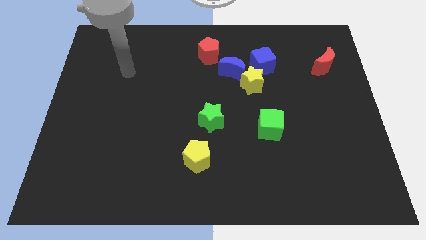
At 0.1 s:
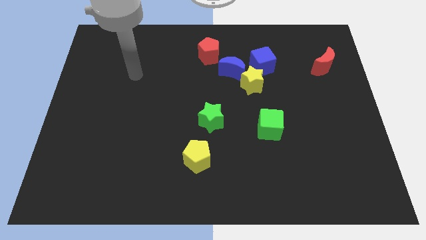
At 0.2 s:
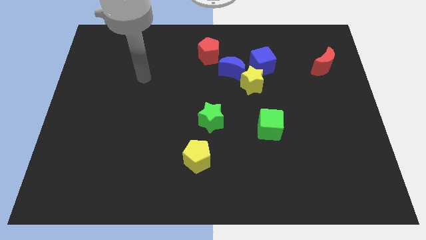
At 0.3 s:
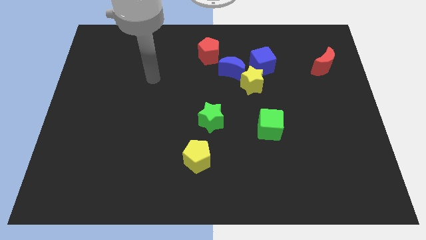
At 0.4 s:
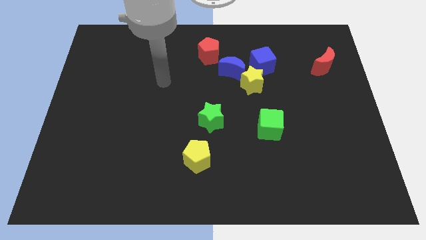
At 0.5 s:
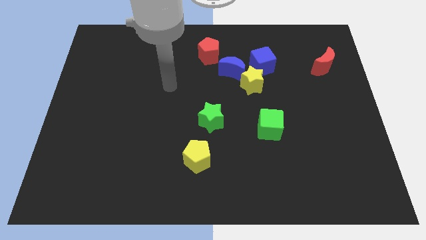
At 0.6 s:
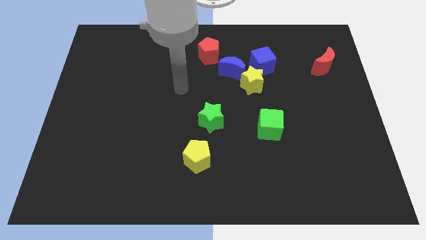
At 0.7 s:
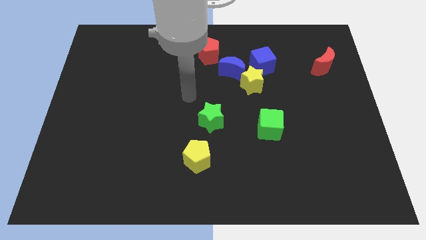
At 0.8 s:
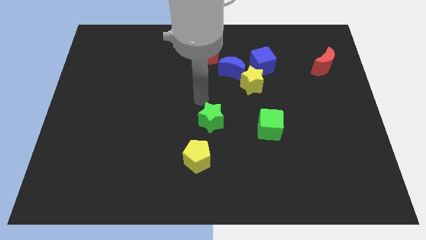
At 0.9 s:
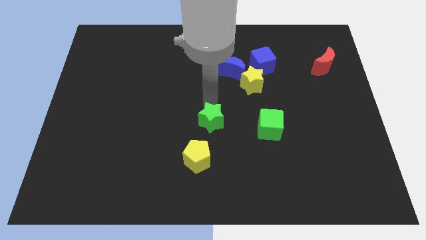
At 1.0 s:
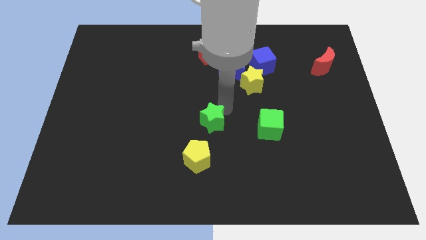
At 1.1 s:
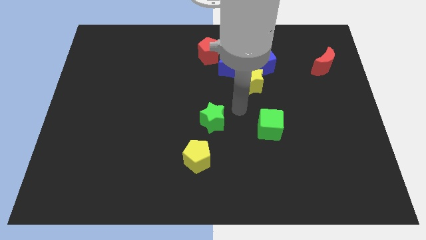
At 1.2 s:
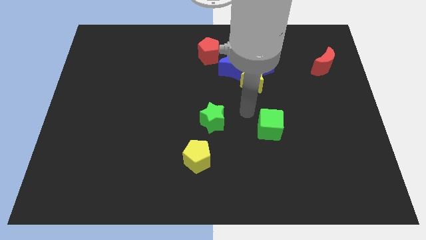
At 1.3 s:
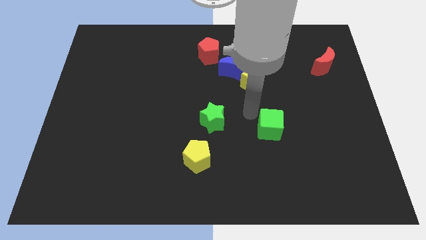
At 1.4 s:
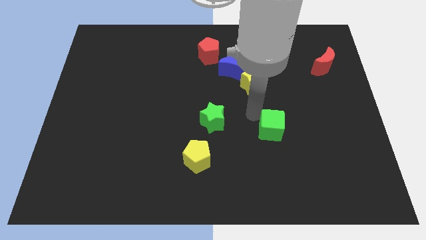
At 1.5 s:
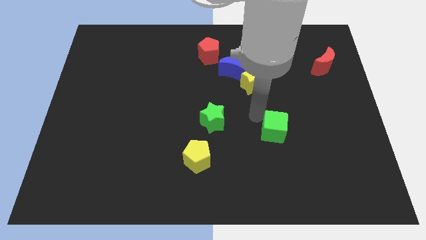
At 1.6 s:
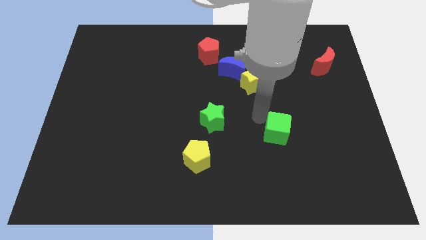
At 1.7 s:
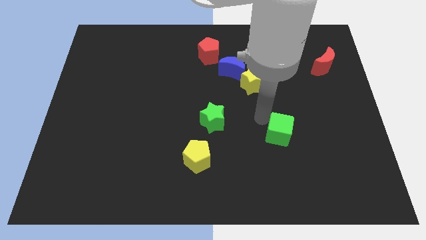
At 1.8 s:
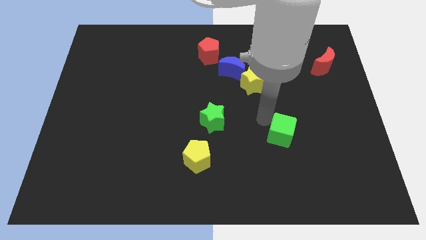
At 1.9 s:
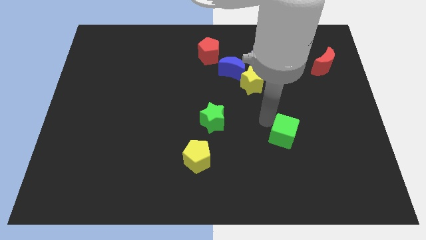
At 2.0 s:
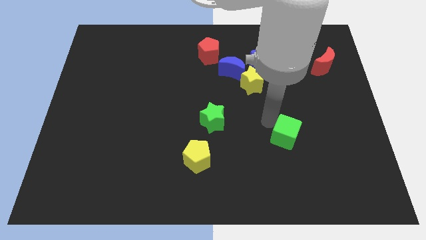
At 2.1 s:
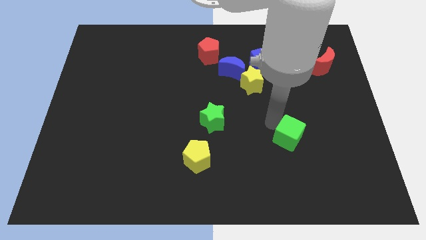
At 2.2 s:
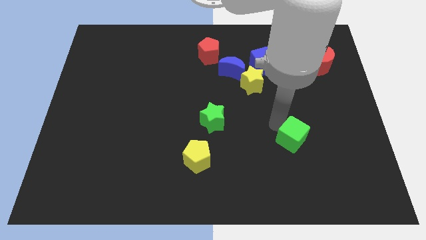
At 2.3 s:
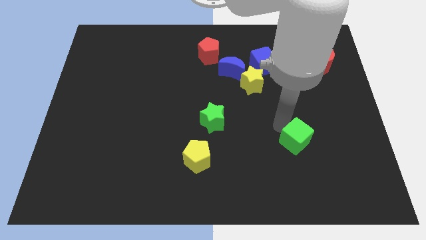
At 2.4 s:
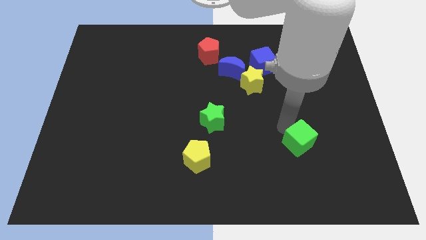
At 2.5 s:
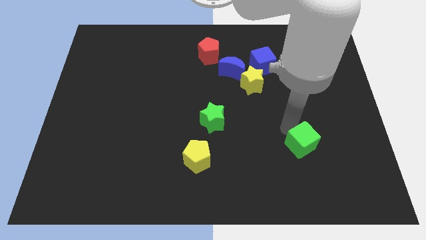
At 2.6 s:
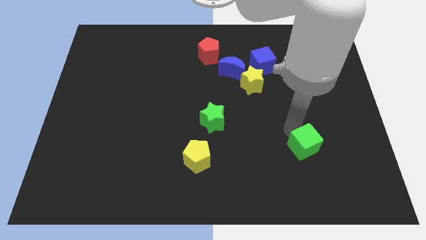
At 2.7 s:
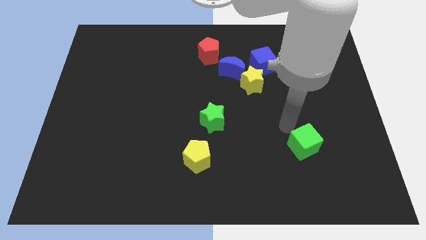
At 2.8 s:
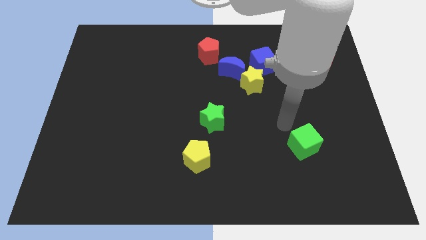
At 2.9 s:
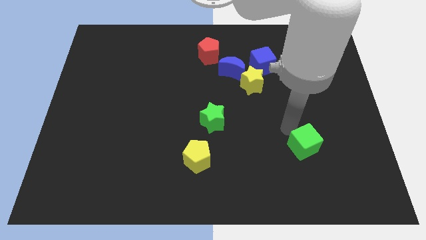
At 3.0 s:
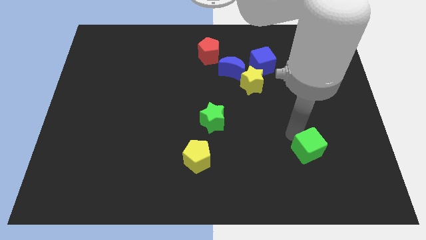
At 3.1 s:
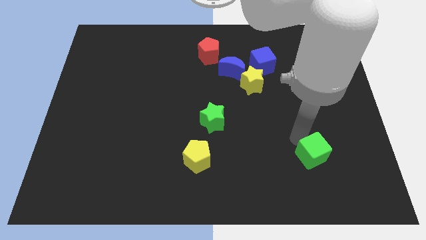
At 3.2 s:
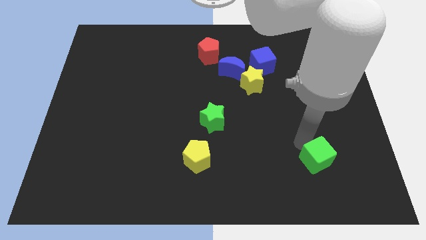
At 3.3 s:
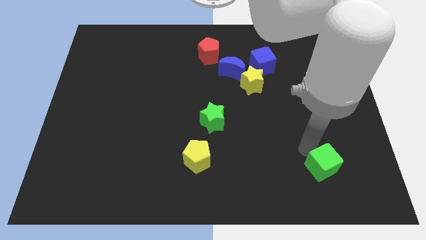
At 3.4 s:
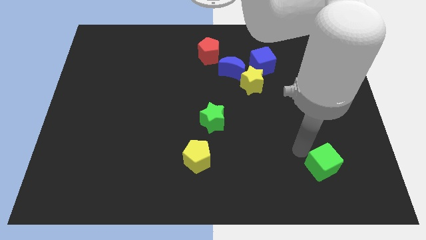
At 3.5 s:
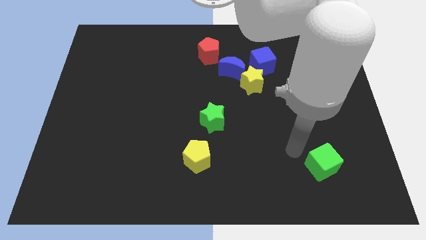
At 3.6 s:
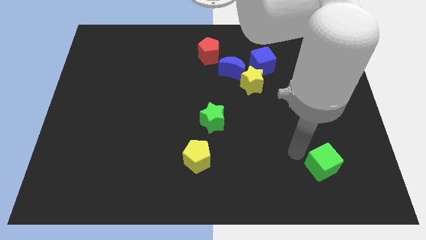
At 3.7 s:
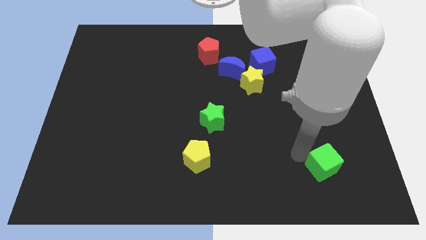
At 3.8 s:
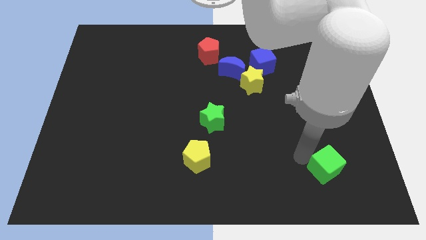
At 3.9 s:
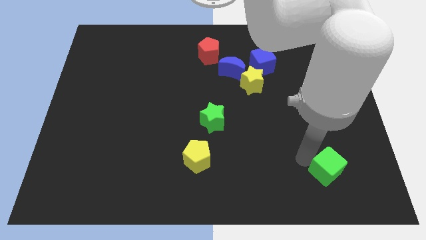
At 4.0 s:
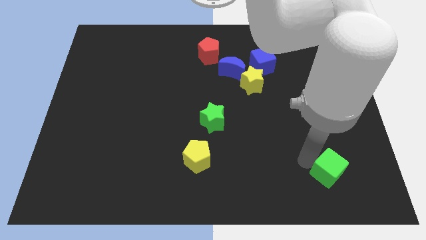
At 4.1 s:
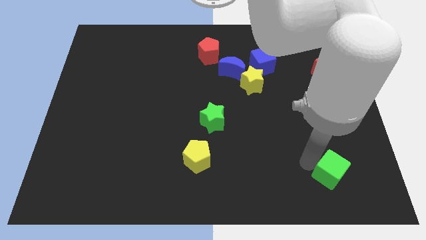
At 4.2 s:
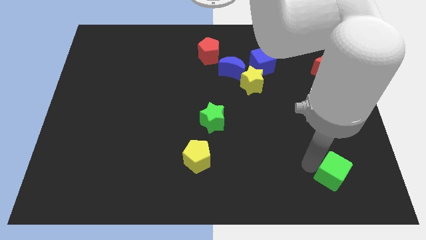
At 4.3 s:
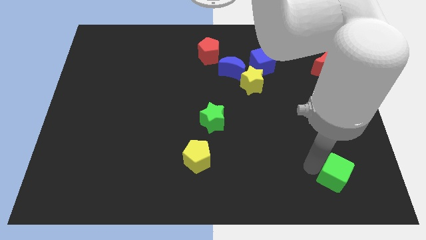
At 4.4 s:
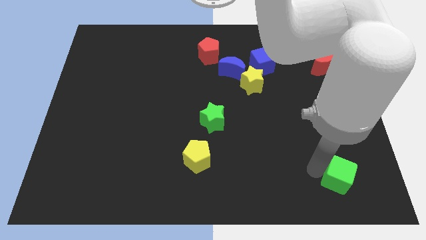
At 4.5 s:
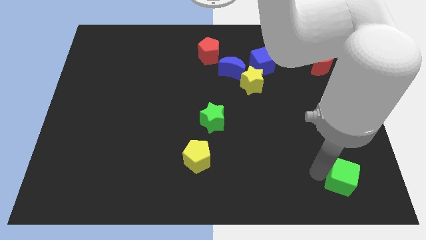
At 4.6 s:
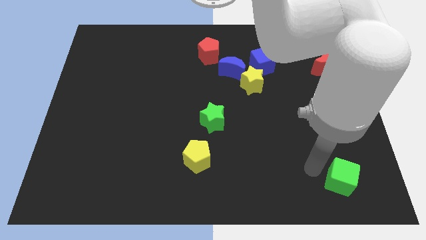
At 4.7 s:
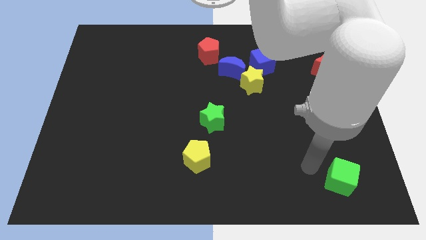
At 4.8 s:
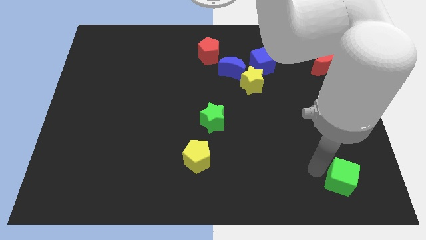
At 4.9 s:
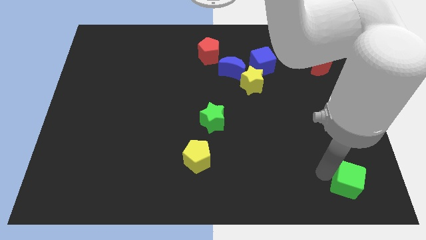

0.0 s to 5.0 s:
push the green cube to the lower right corner
